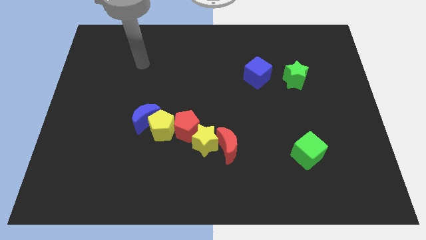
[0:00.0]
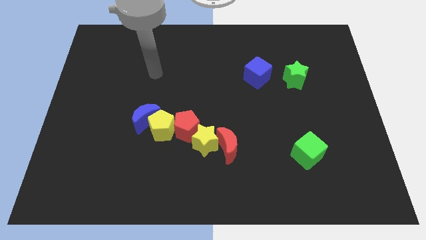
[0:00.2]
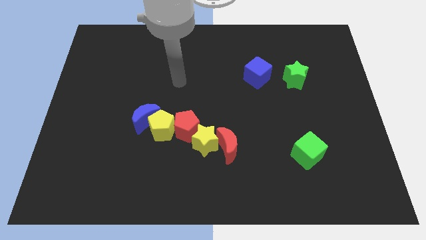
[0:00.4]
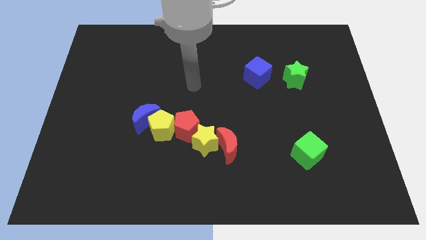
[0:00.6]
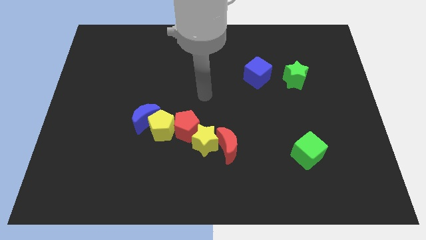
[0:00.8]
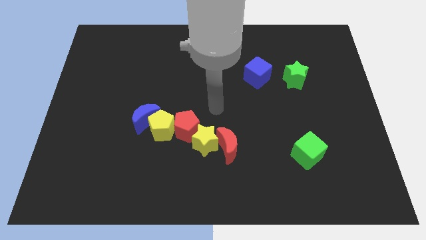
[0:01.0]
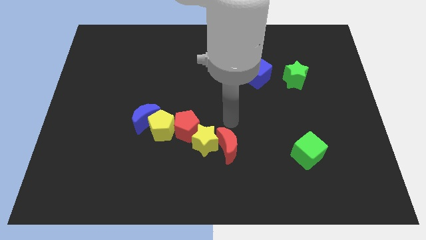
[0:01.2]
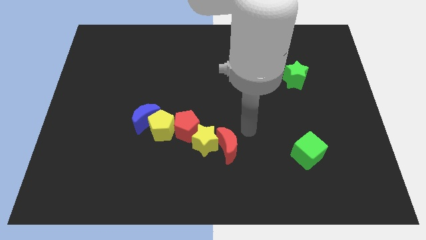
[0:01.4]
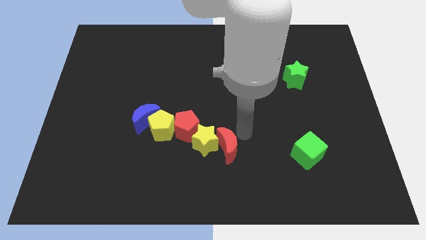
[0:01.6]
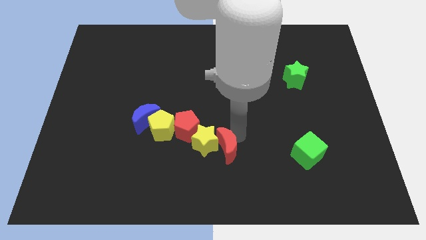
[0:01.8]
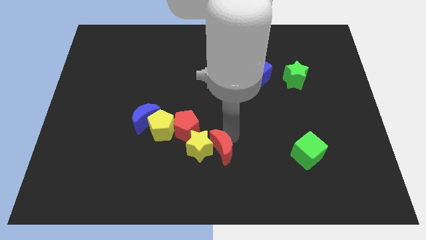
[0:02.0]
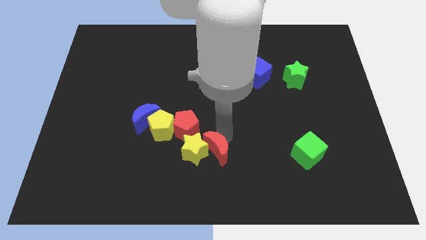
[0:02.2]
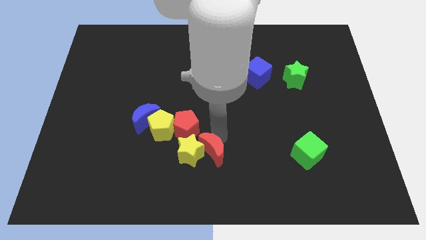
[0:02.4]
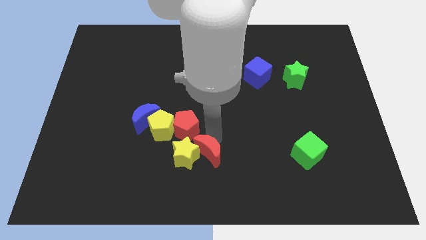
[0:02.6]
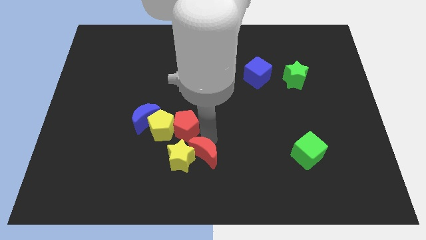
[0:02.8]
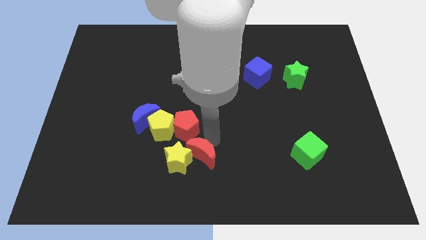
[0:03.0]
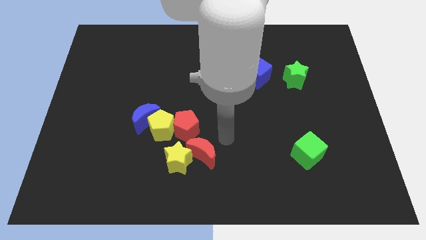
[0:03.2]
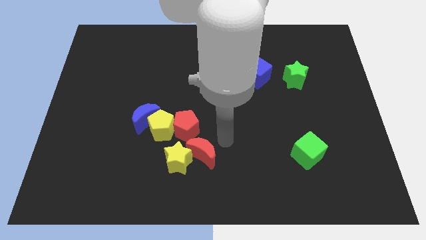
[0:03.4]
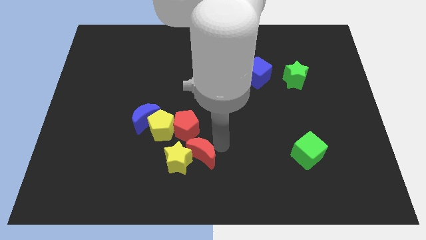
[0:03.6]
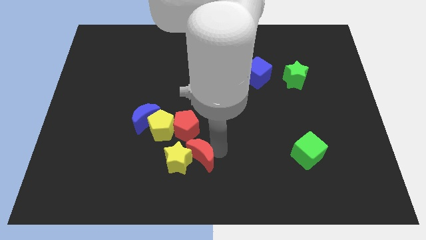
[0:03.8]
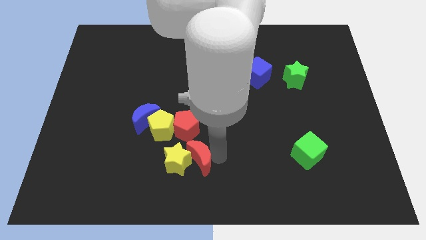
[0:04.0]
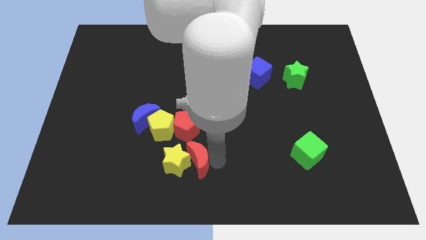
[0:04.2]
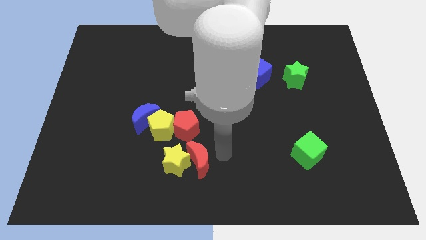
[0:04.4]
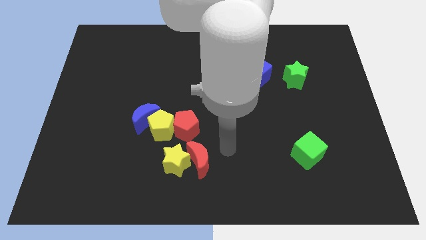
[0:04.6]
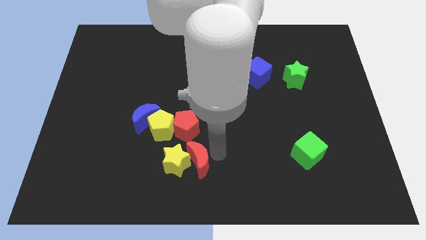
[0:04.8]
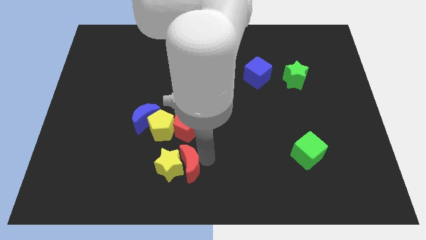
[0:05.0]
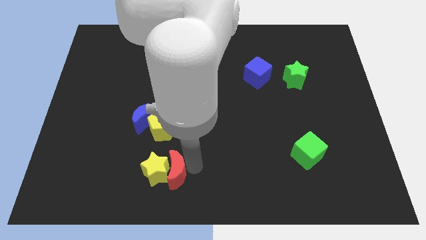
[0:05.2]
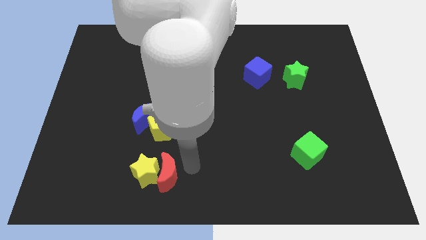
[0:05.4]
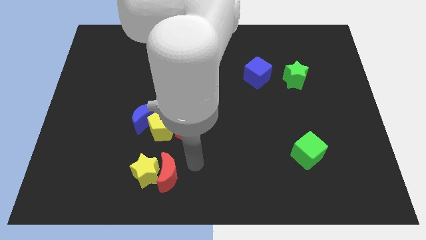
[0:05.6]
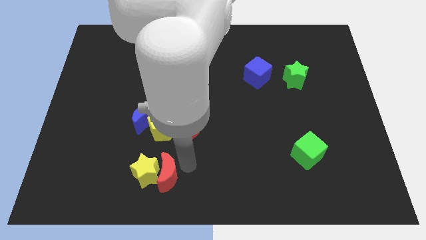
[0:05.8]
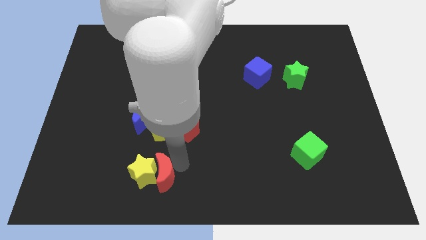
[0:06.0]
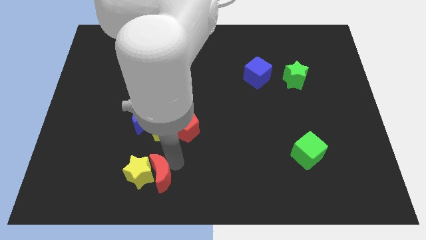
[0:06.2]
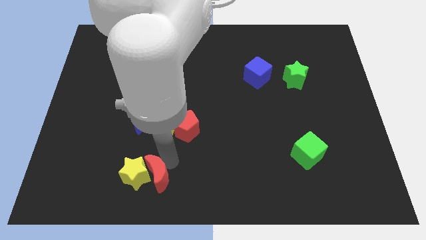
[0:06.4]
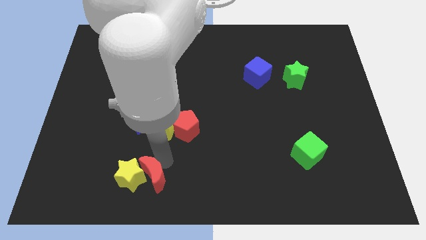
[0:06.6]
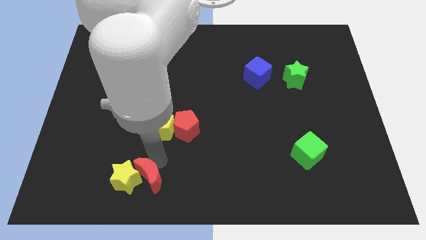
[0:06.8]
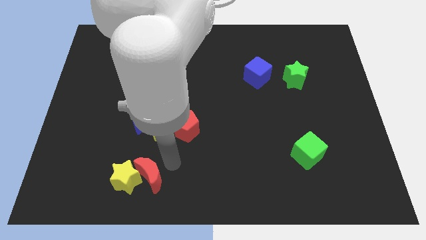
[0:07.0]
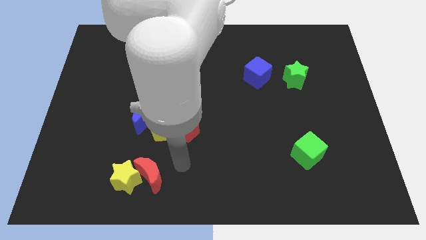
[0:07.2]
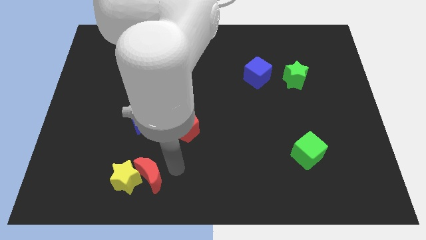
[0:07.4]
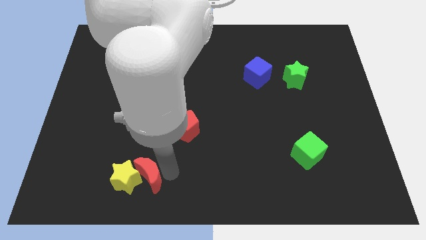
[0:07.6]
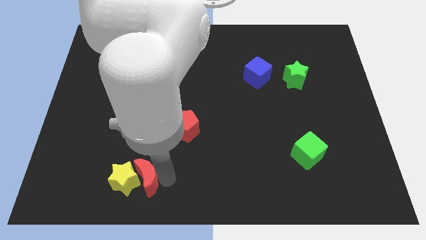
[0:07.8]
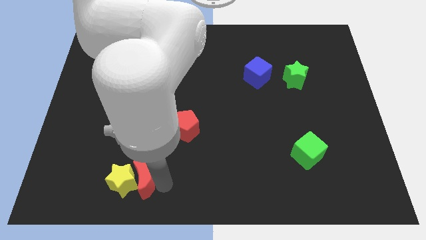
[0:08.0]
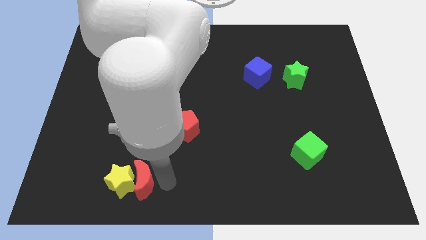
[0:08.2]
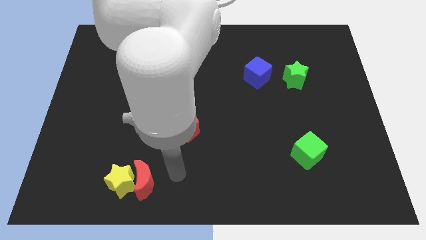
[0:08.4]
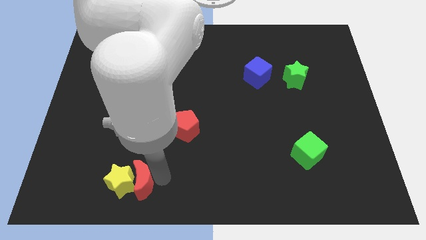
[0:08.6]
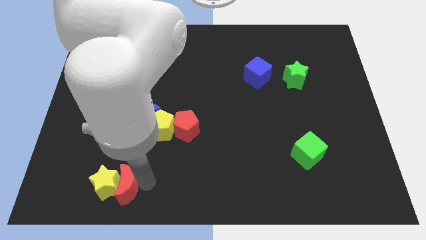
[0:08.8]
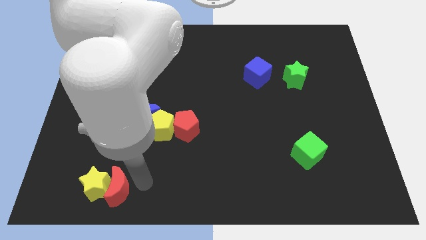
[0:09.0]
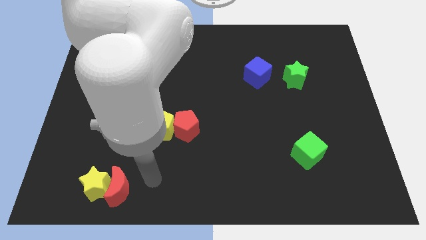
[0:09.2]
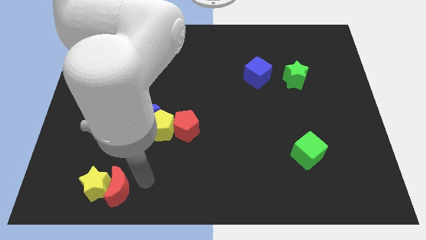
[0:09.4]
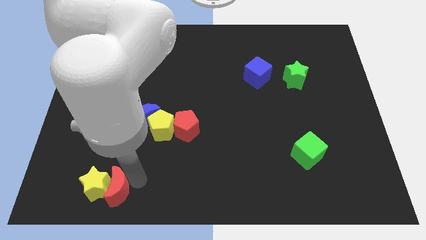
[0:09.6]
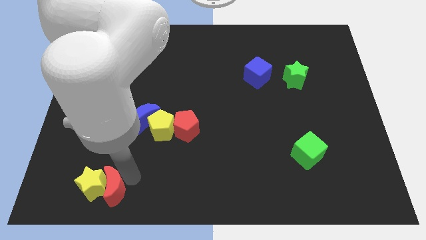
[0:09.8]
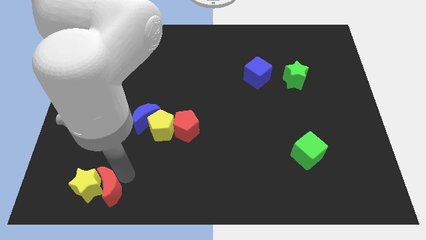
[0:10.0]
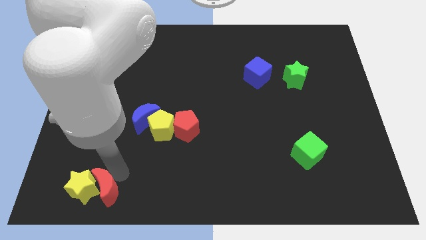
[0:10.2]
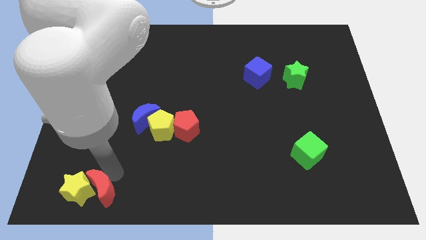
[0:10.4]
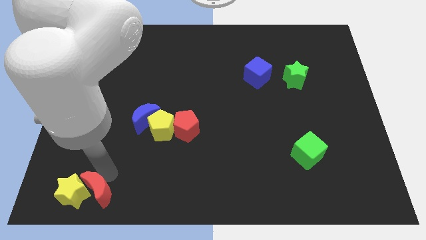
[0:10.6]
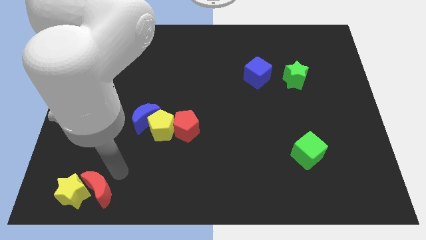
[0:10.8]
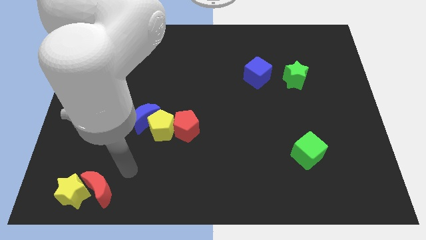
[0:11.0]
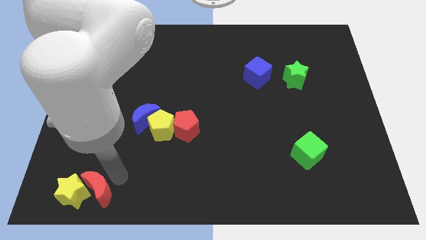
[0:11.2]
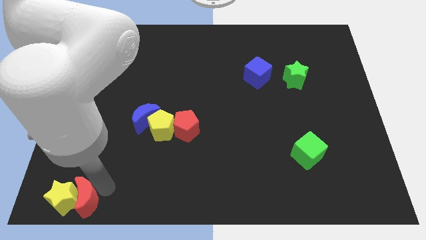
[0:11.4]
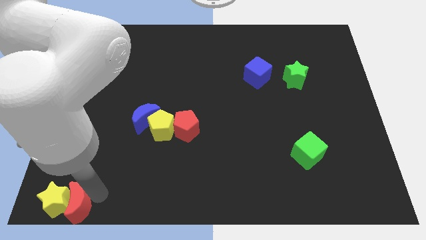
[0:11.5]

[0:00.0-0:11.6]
put the red moon to the bottom left
